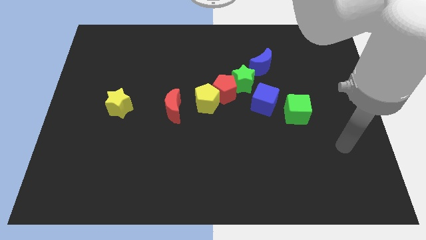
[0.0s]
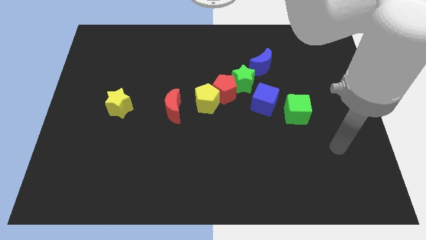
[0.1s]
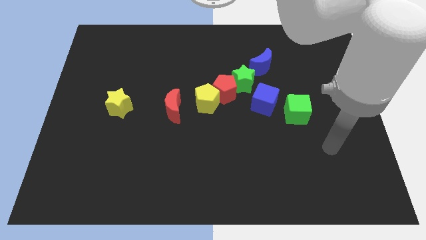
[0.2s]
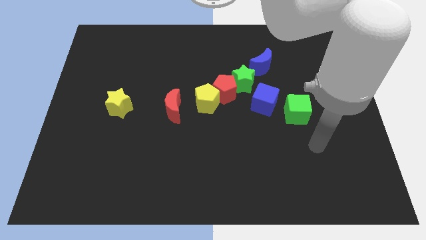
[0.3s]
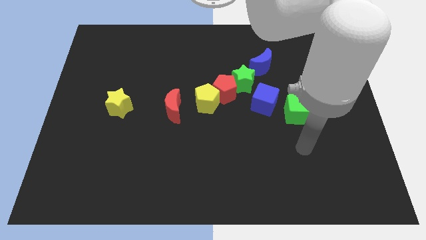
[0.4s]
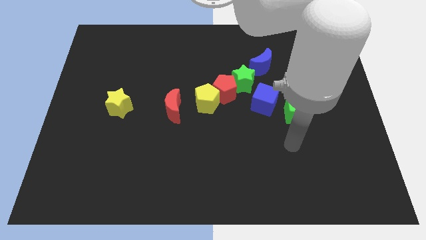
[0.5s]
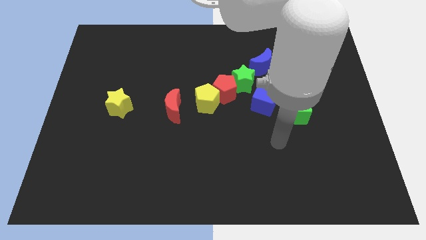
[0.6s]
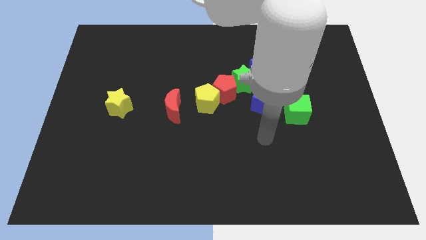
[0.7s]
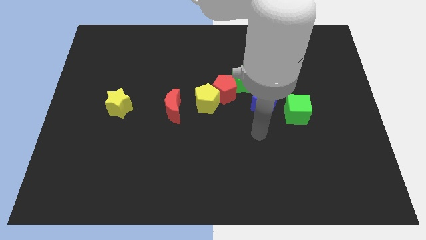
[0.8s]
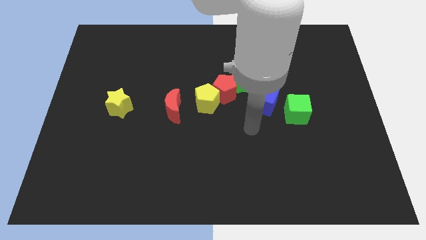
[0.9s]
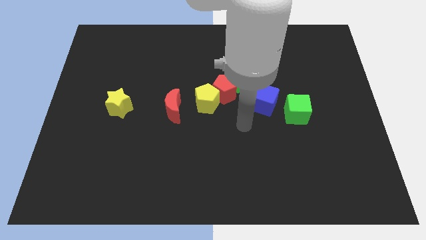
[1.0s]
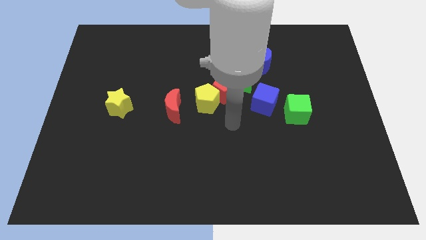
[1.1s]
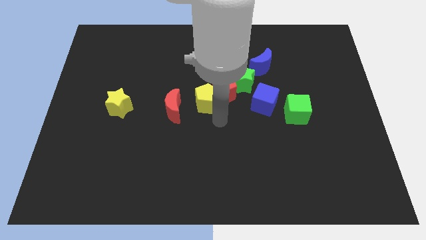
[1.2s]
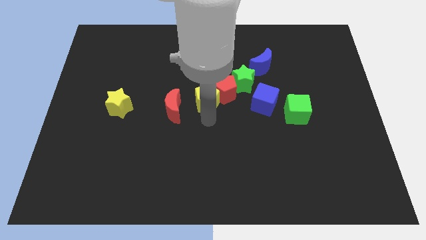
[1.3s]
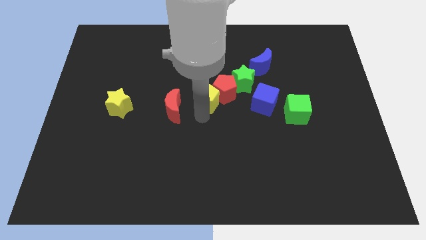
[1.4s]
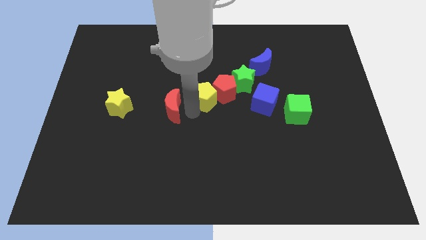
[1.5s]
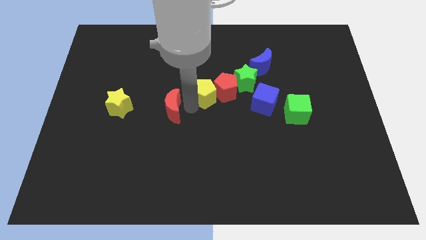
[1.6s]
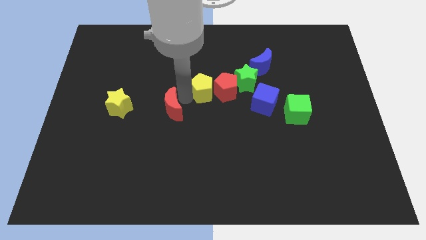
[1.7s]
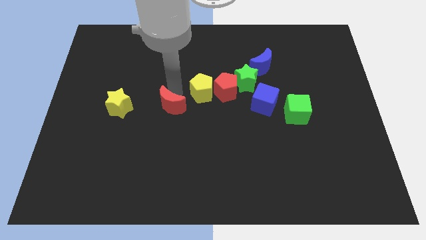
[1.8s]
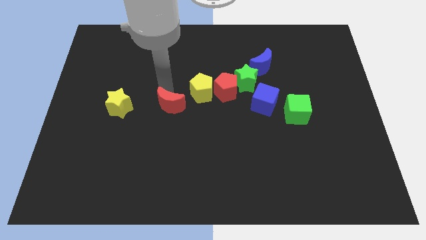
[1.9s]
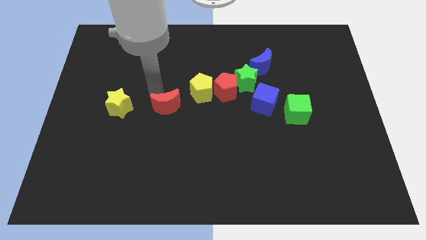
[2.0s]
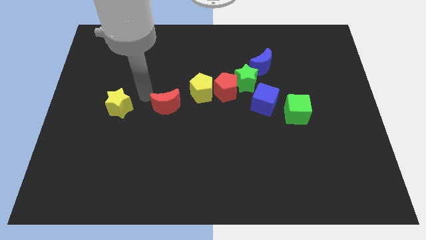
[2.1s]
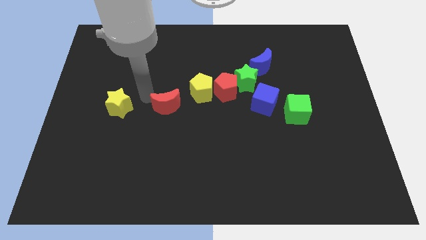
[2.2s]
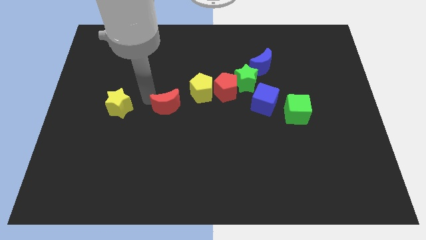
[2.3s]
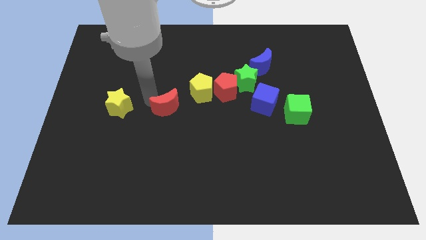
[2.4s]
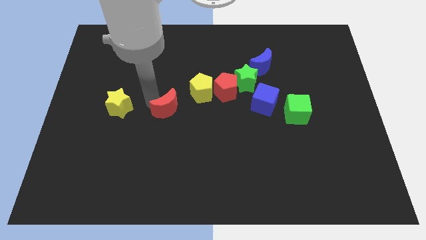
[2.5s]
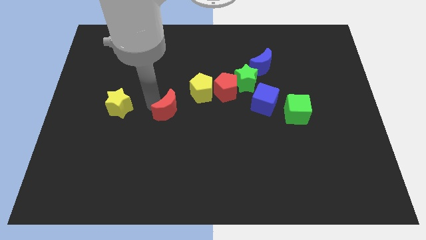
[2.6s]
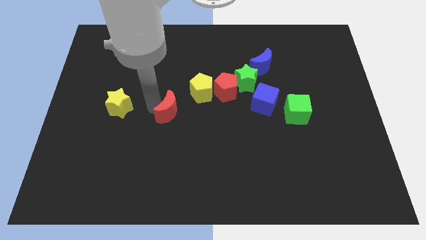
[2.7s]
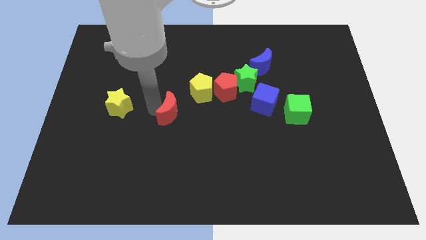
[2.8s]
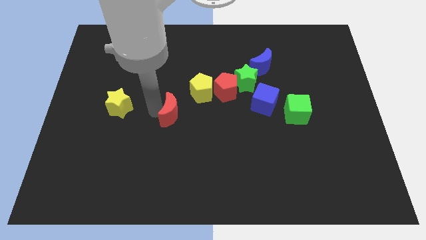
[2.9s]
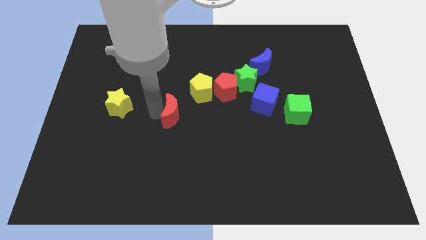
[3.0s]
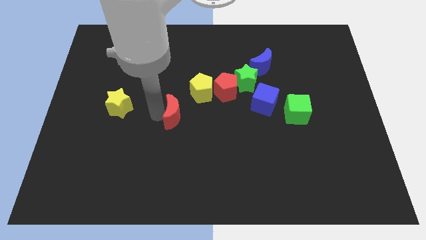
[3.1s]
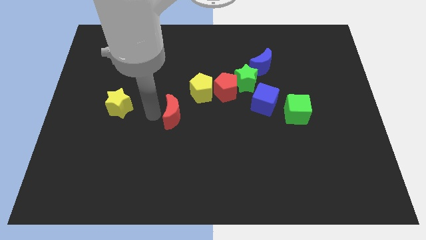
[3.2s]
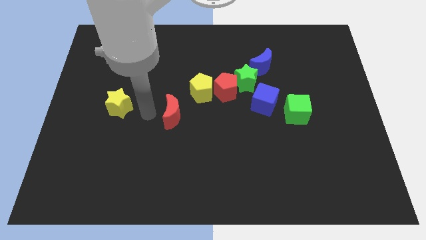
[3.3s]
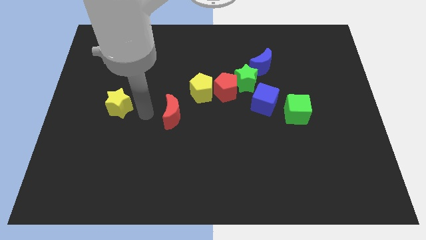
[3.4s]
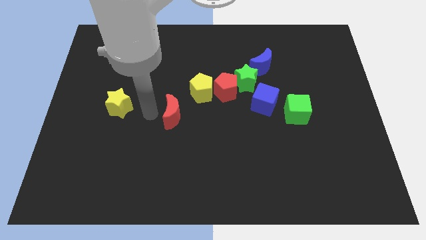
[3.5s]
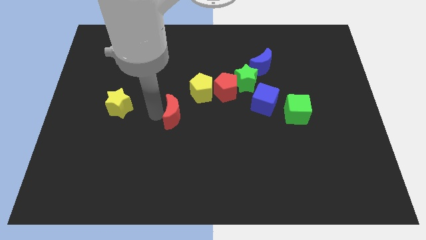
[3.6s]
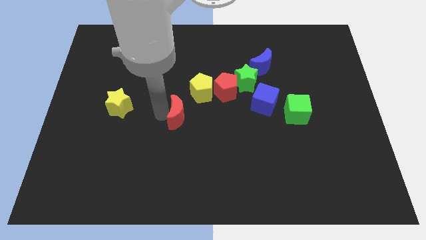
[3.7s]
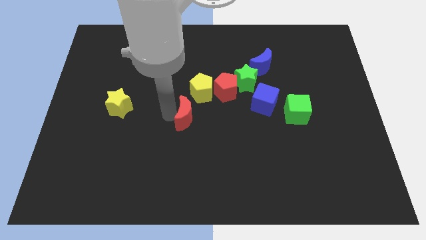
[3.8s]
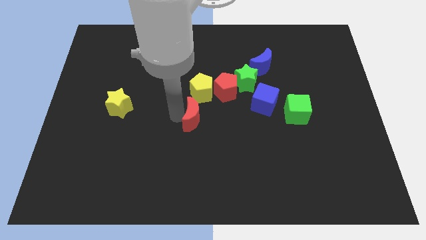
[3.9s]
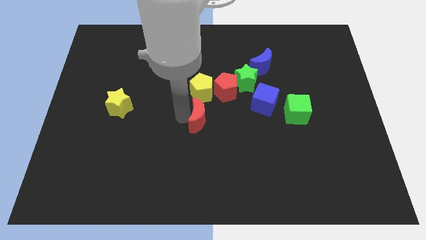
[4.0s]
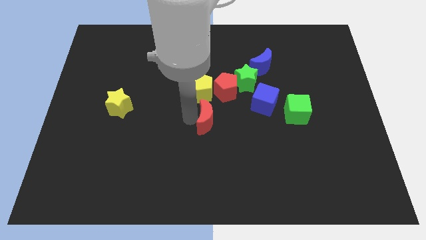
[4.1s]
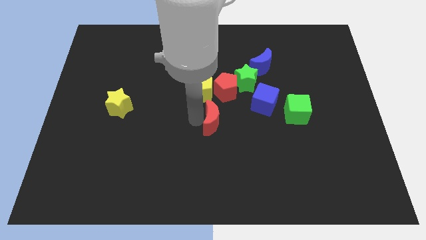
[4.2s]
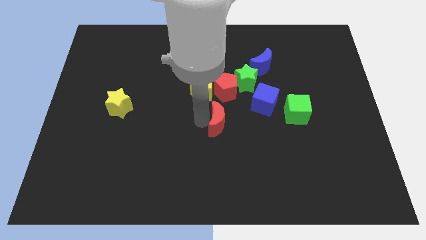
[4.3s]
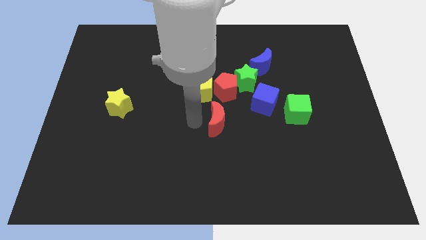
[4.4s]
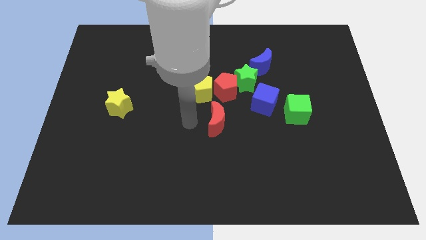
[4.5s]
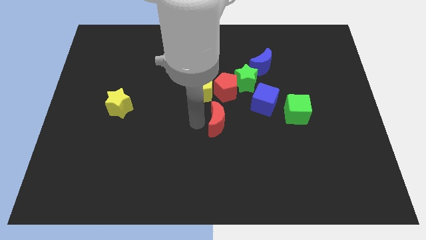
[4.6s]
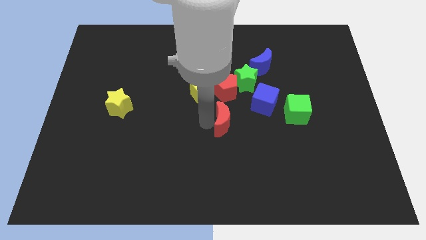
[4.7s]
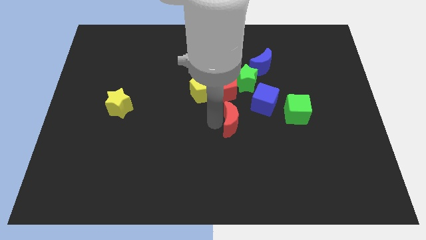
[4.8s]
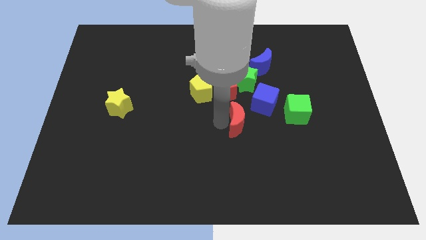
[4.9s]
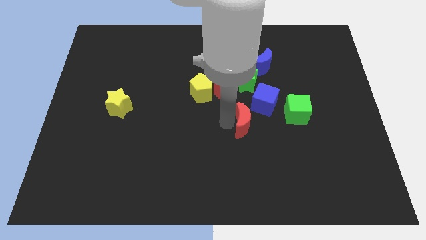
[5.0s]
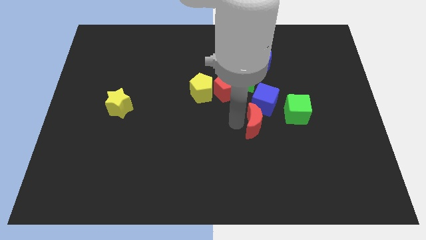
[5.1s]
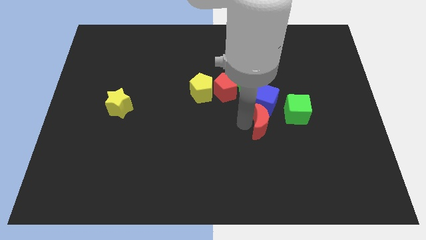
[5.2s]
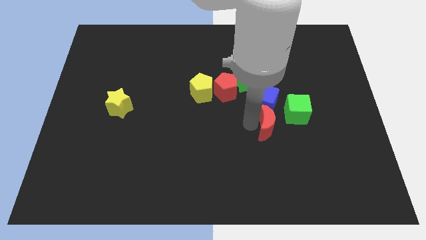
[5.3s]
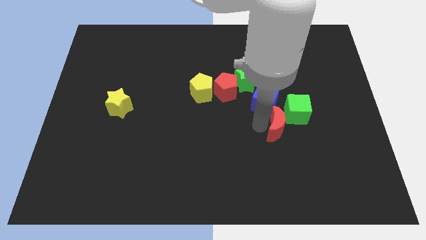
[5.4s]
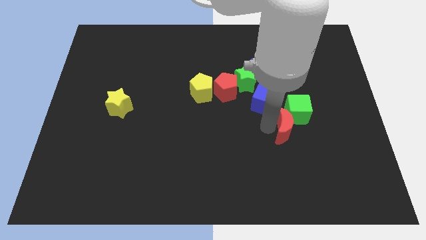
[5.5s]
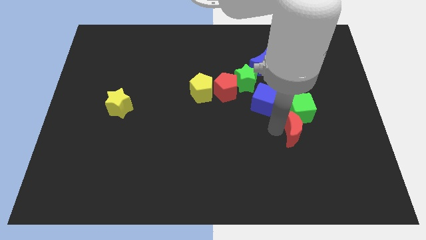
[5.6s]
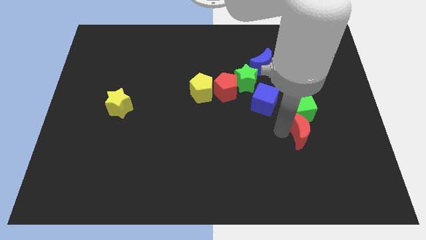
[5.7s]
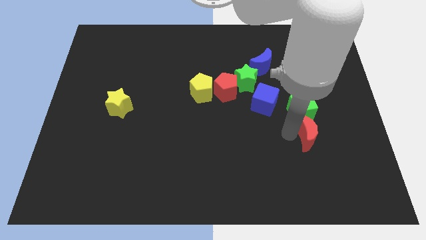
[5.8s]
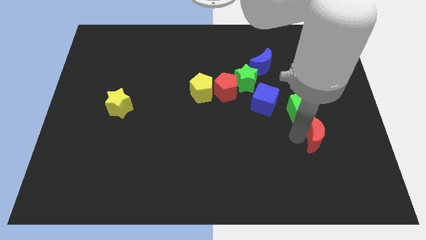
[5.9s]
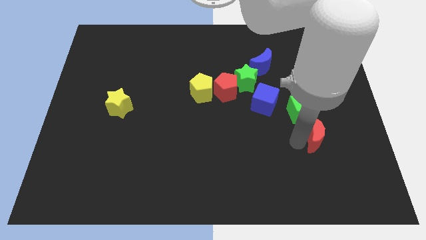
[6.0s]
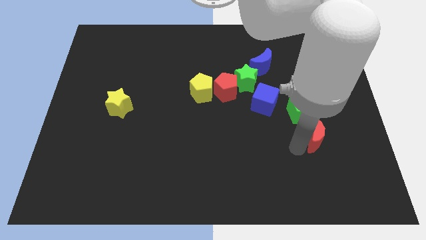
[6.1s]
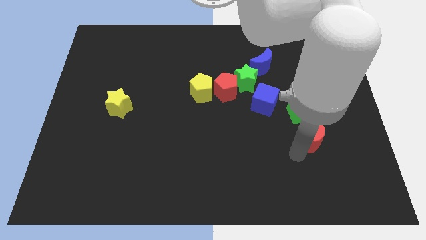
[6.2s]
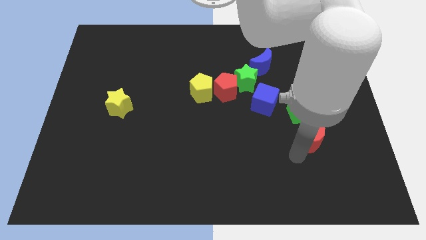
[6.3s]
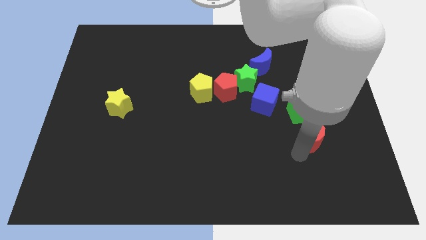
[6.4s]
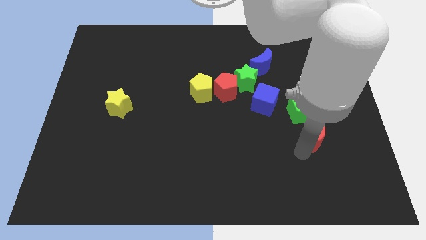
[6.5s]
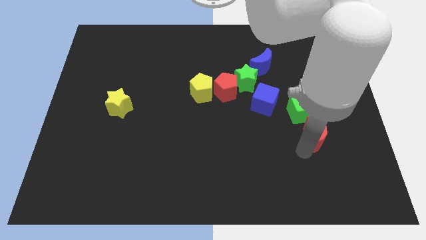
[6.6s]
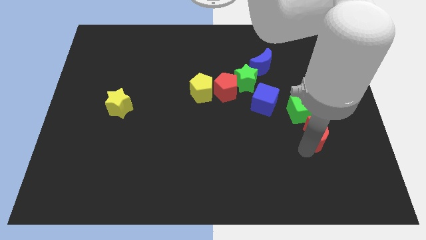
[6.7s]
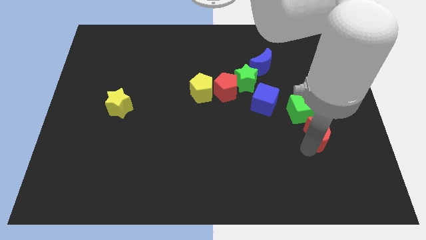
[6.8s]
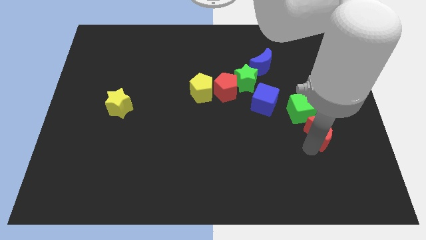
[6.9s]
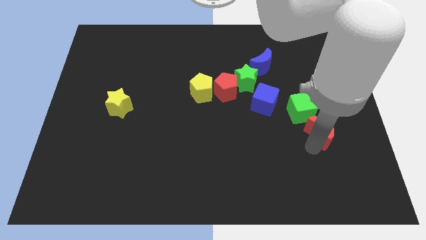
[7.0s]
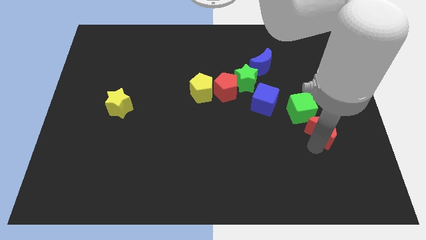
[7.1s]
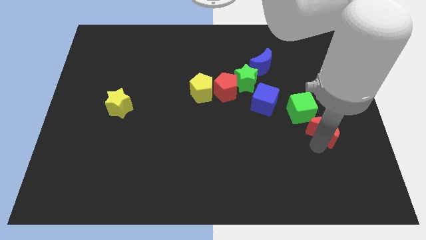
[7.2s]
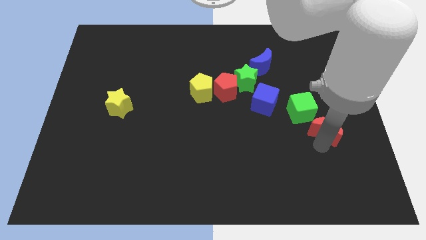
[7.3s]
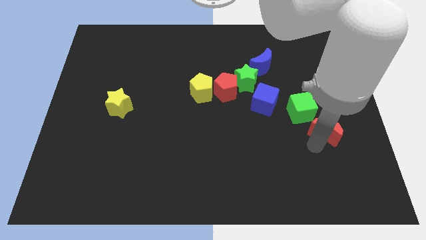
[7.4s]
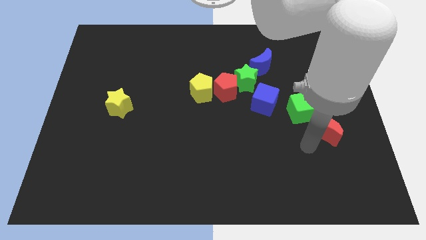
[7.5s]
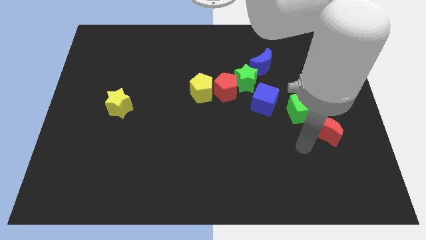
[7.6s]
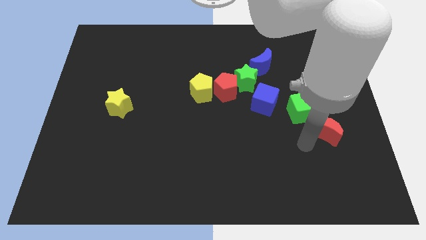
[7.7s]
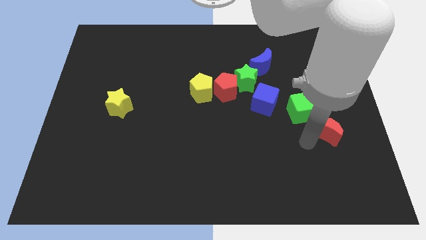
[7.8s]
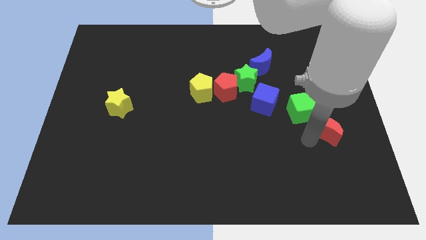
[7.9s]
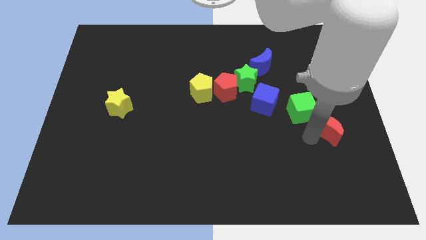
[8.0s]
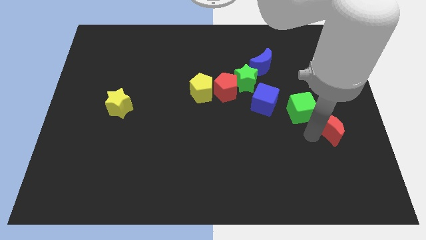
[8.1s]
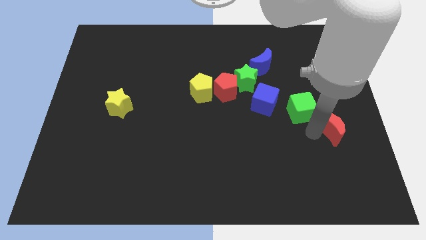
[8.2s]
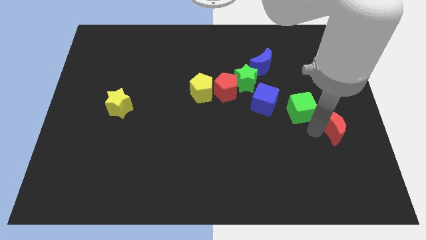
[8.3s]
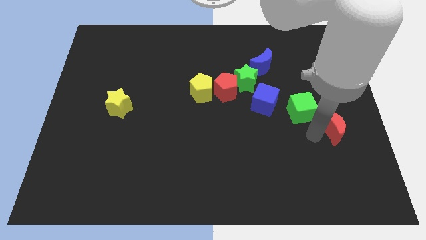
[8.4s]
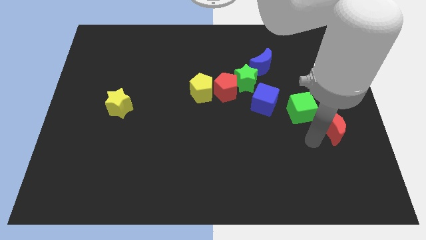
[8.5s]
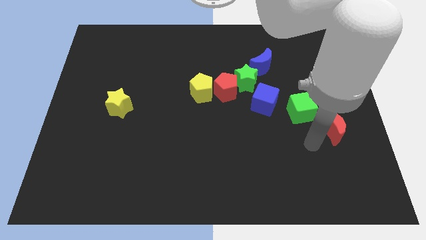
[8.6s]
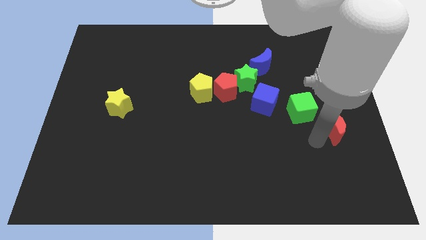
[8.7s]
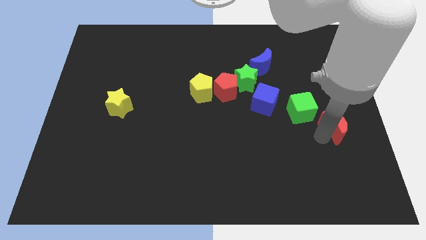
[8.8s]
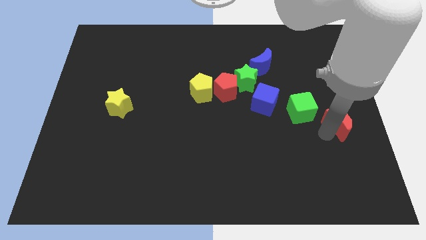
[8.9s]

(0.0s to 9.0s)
slide the red moon to the center right
